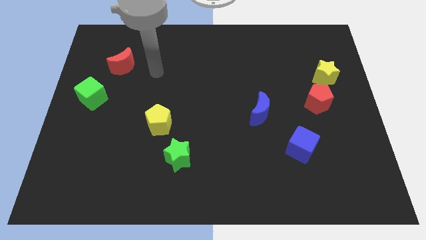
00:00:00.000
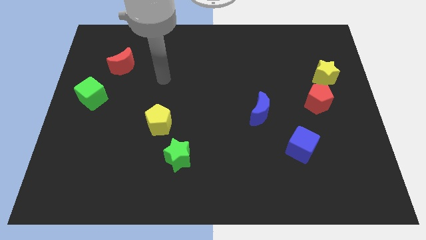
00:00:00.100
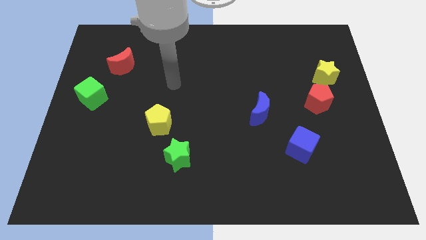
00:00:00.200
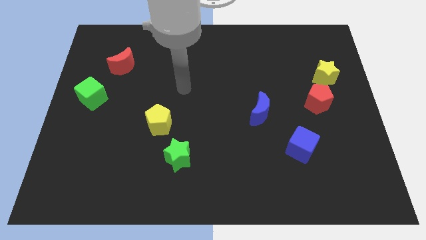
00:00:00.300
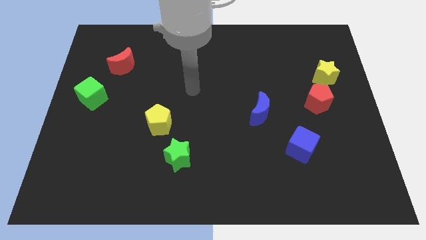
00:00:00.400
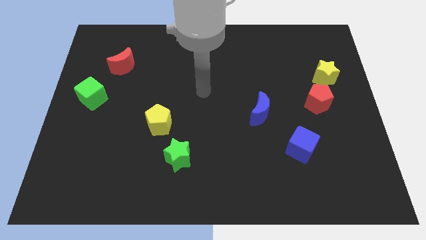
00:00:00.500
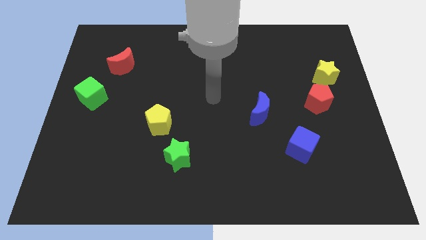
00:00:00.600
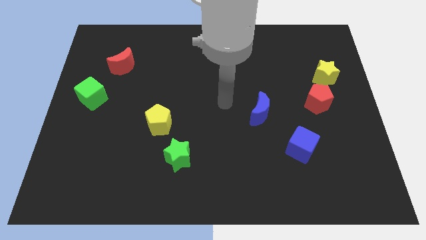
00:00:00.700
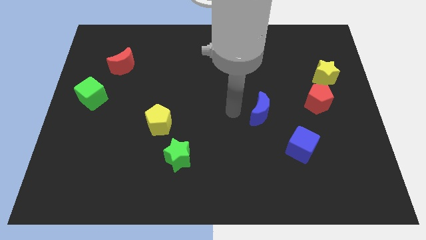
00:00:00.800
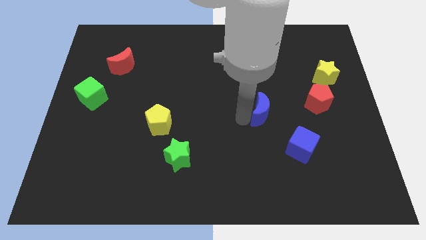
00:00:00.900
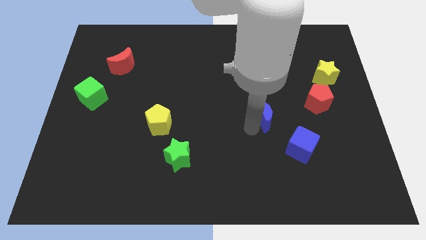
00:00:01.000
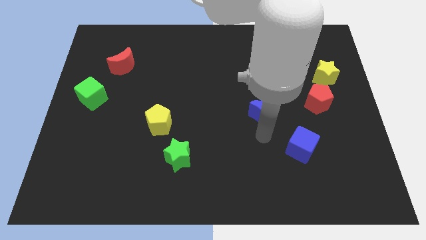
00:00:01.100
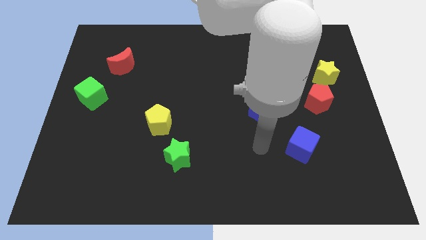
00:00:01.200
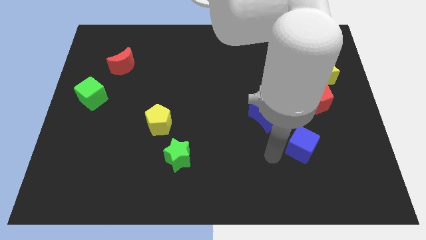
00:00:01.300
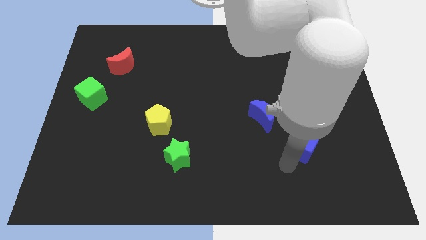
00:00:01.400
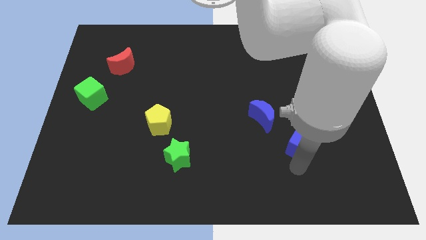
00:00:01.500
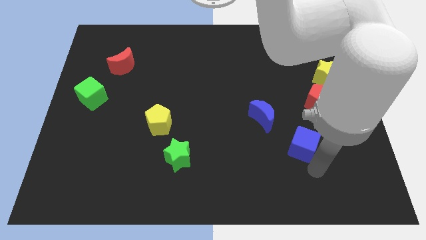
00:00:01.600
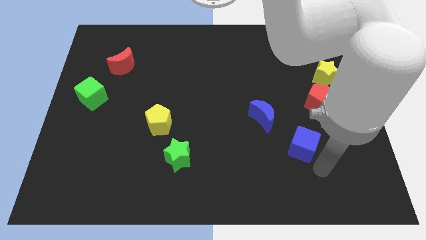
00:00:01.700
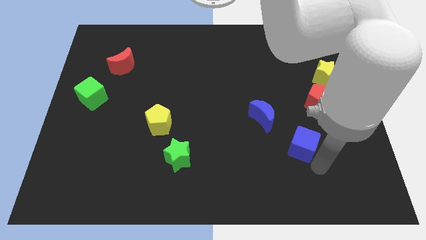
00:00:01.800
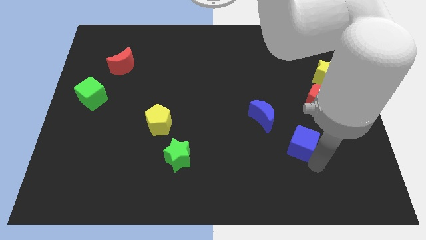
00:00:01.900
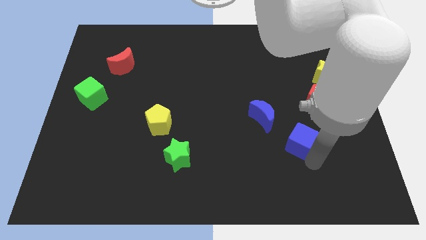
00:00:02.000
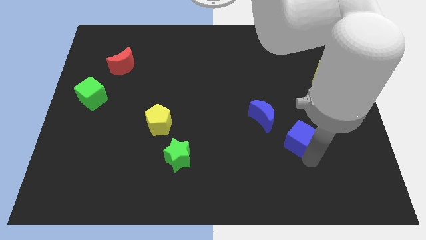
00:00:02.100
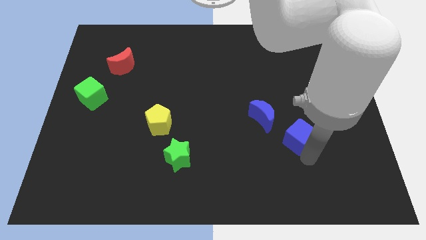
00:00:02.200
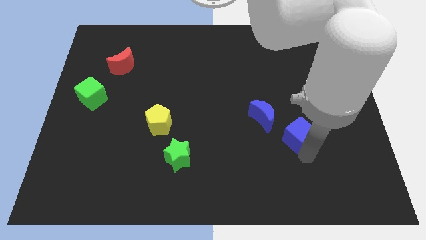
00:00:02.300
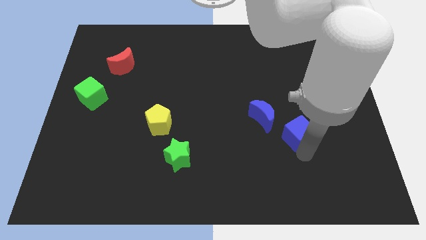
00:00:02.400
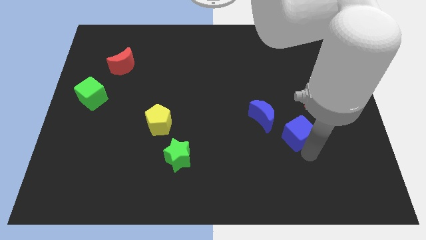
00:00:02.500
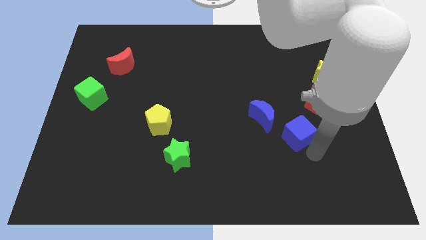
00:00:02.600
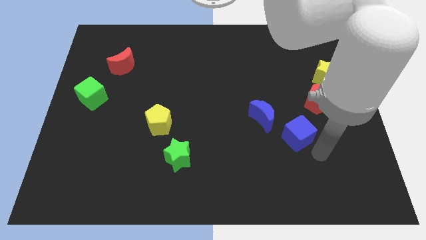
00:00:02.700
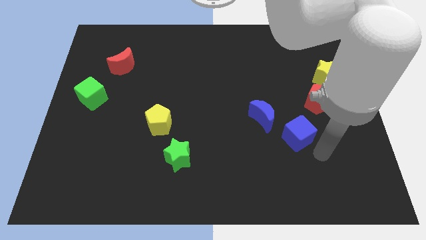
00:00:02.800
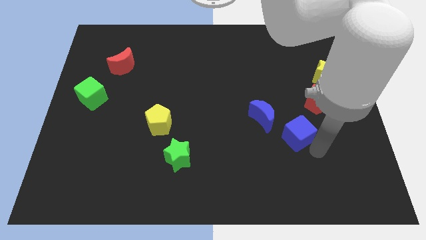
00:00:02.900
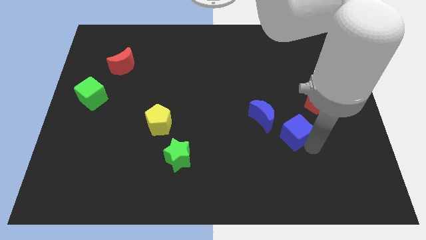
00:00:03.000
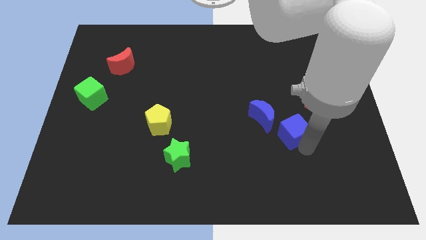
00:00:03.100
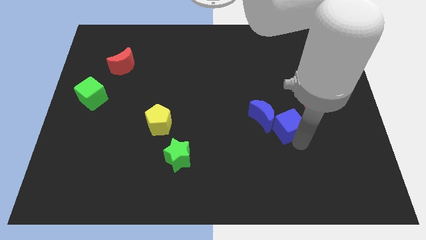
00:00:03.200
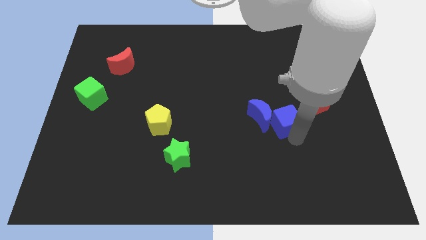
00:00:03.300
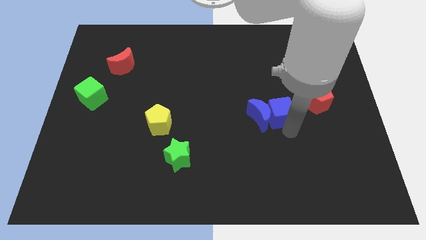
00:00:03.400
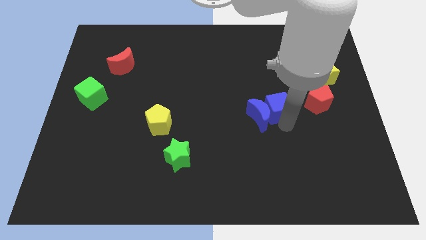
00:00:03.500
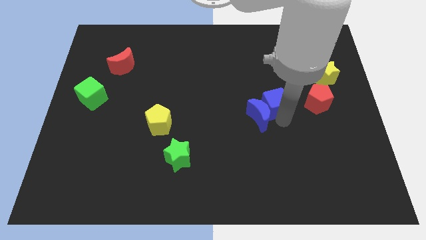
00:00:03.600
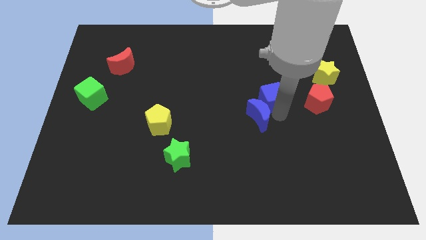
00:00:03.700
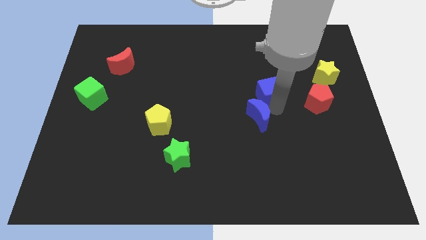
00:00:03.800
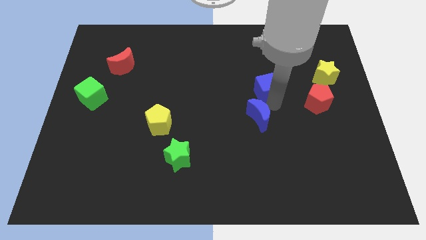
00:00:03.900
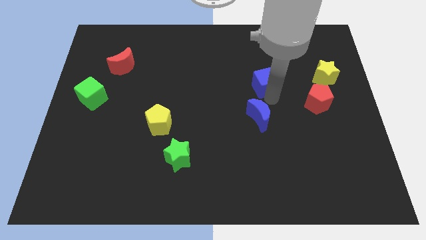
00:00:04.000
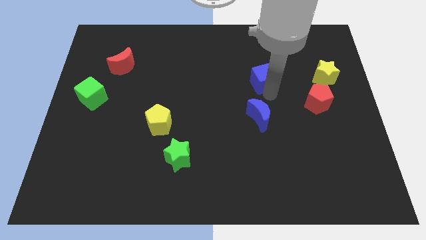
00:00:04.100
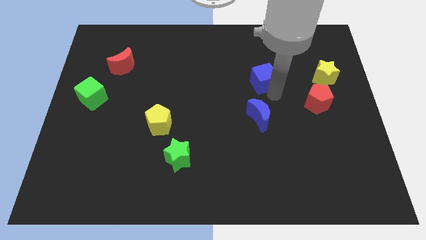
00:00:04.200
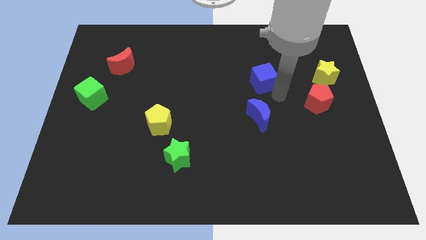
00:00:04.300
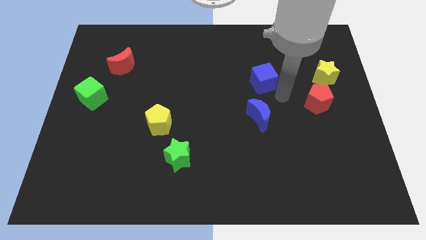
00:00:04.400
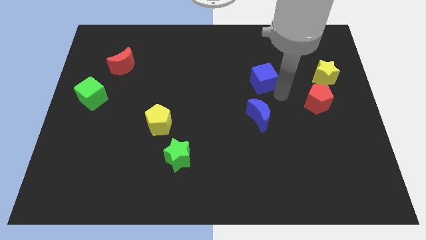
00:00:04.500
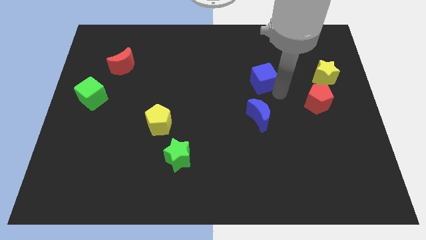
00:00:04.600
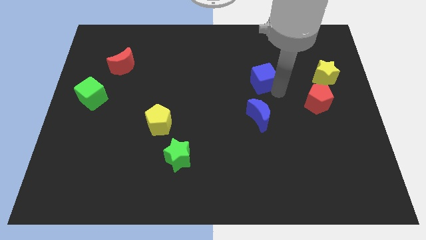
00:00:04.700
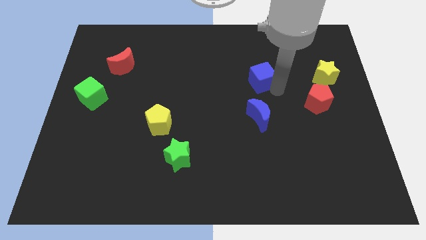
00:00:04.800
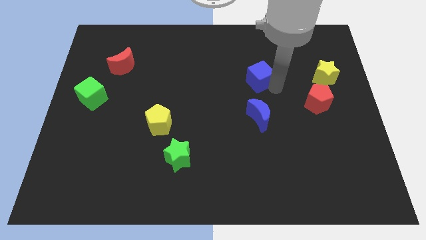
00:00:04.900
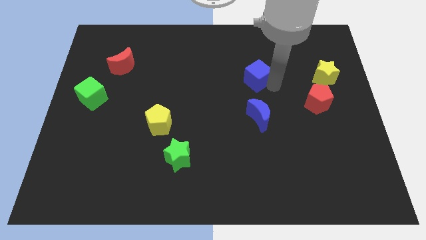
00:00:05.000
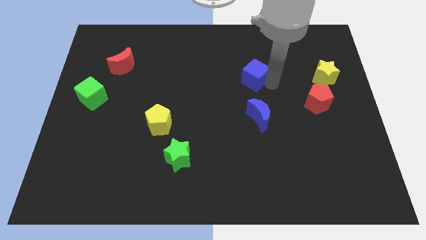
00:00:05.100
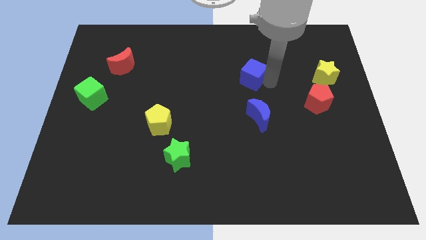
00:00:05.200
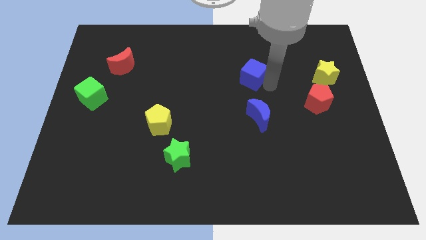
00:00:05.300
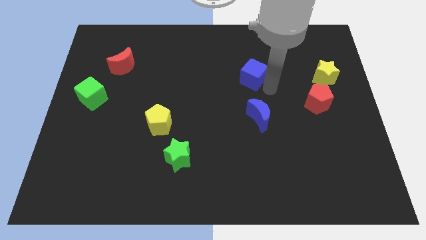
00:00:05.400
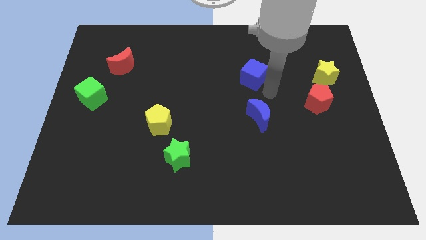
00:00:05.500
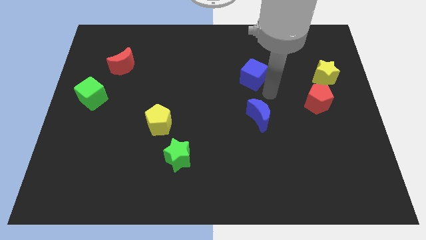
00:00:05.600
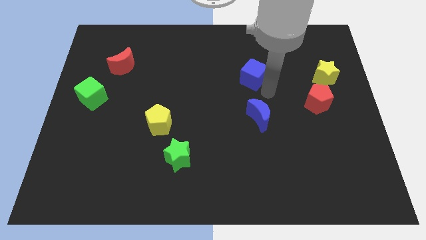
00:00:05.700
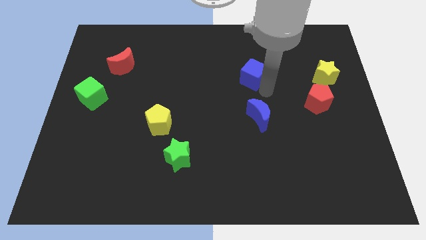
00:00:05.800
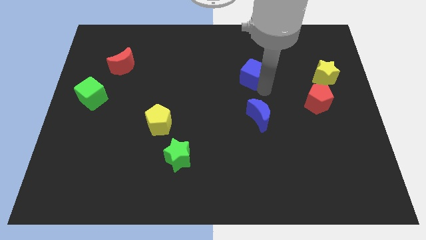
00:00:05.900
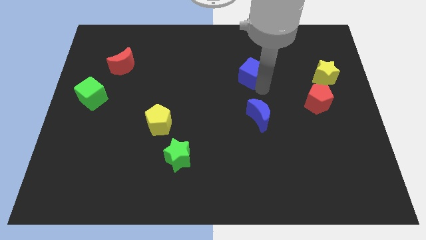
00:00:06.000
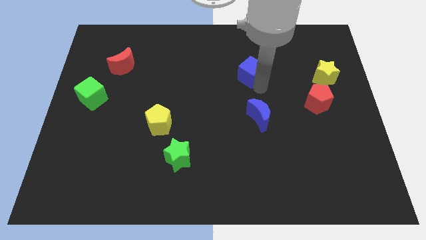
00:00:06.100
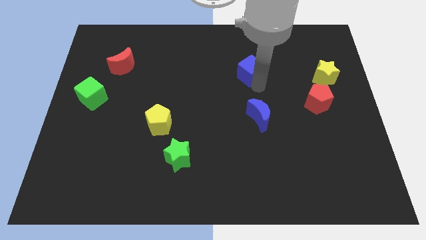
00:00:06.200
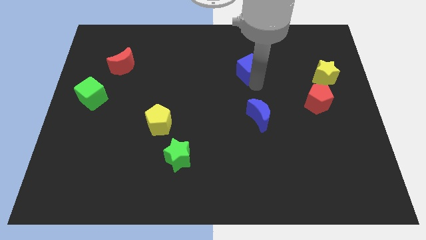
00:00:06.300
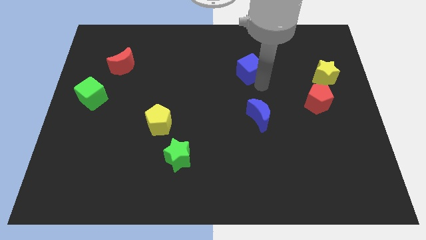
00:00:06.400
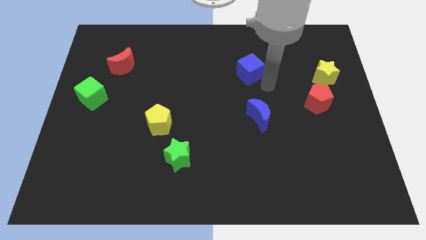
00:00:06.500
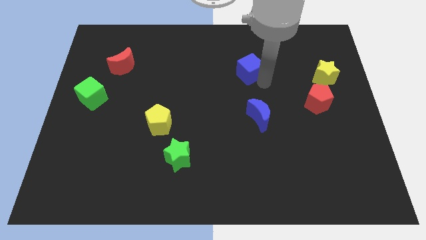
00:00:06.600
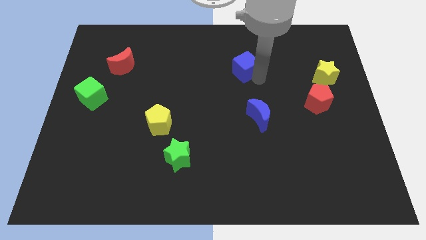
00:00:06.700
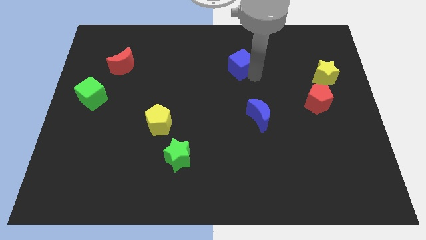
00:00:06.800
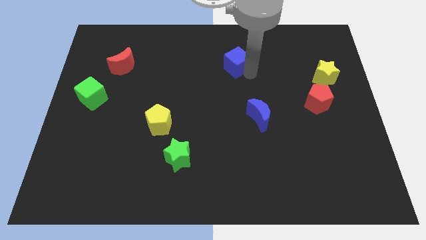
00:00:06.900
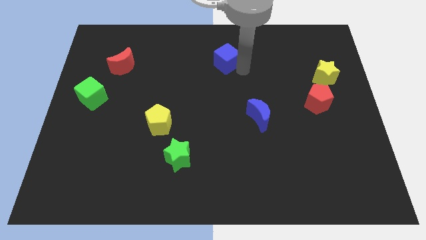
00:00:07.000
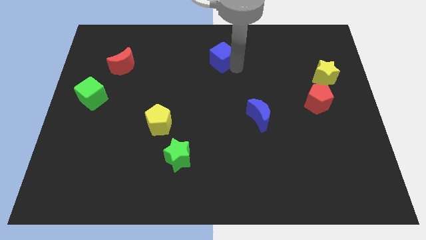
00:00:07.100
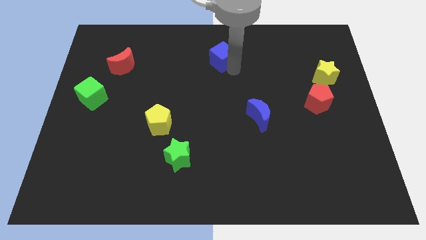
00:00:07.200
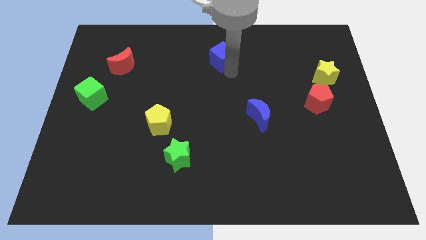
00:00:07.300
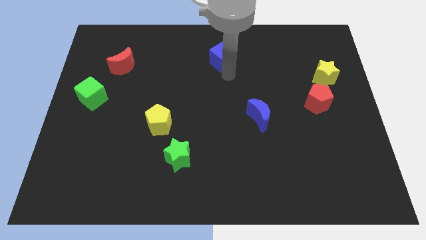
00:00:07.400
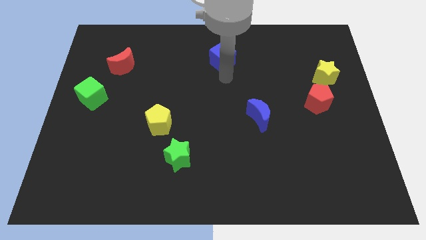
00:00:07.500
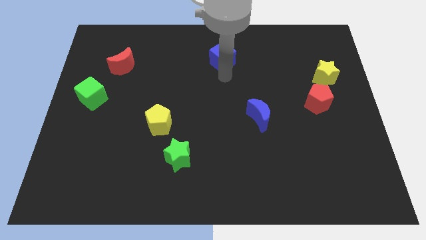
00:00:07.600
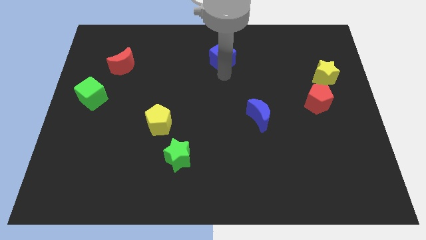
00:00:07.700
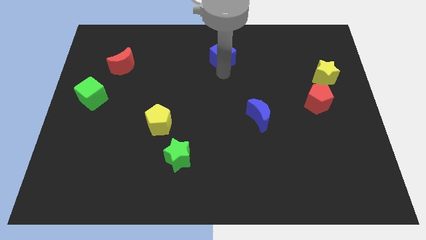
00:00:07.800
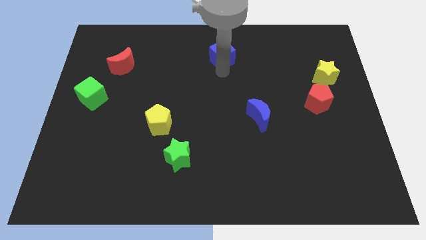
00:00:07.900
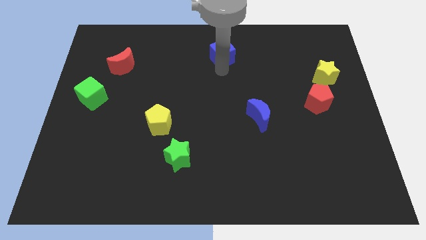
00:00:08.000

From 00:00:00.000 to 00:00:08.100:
slide the blue cube to the top
